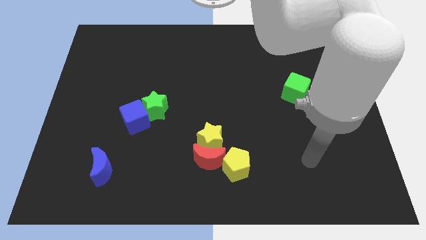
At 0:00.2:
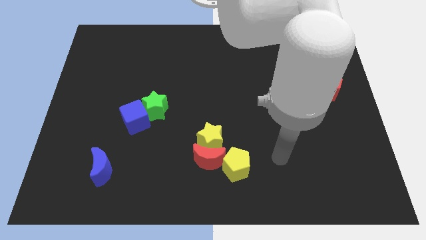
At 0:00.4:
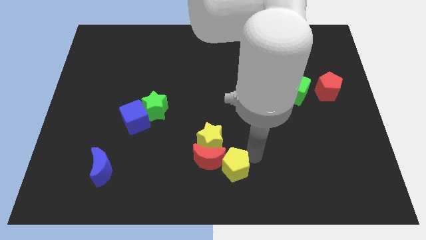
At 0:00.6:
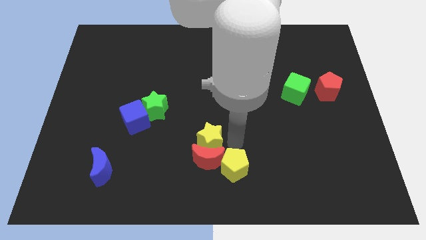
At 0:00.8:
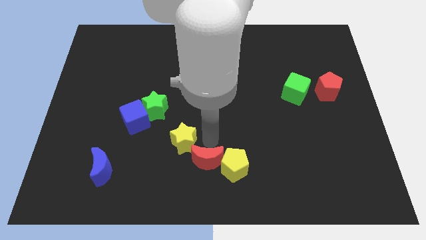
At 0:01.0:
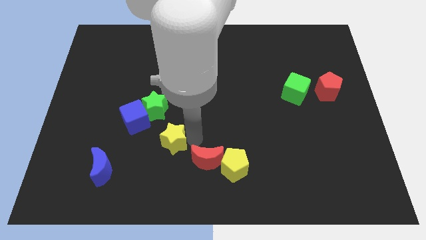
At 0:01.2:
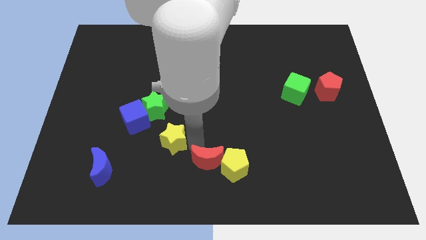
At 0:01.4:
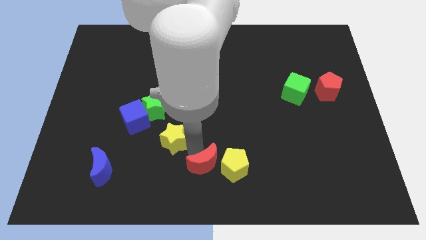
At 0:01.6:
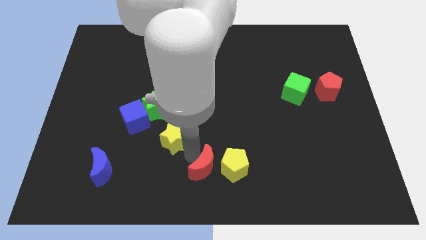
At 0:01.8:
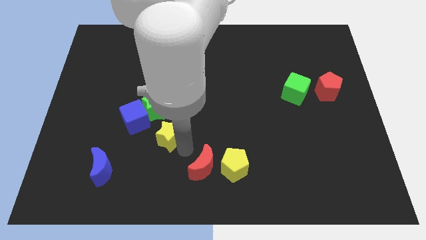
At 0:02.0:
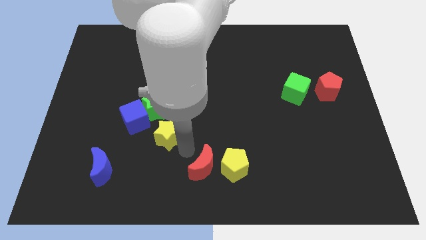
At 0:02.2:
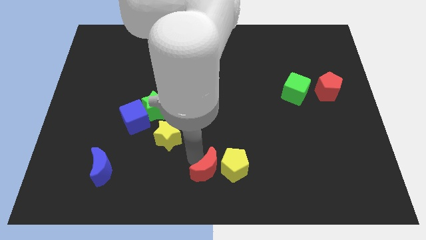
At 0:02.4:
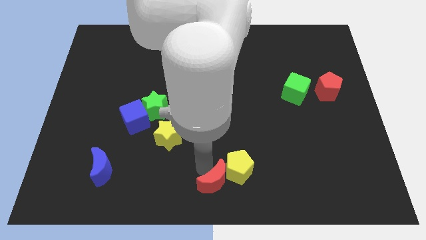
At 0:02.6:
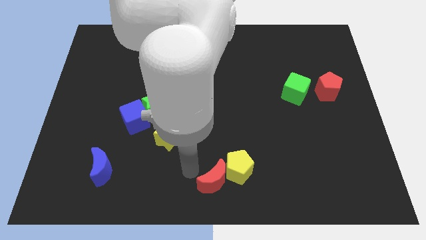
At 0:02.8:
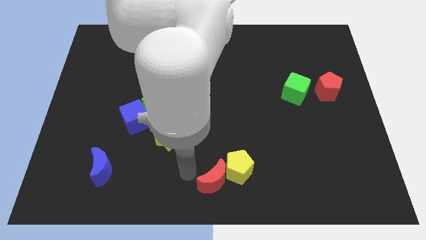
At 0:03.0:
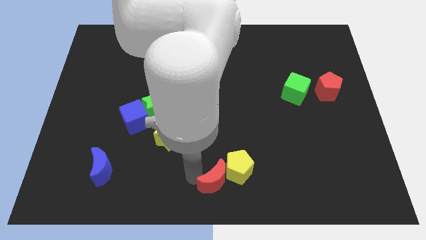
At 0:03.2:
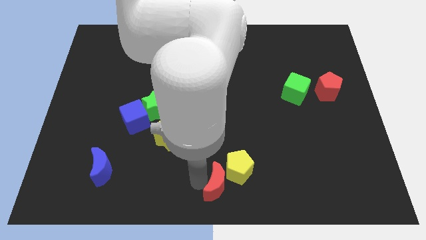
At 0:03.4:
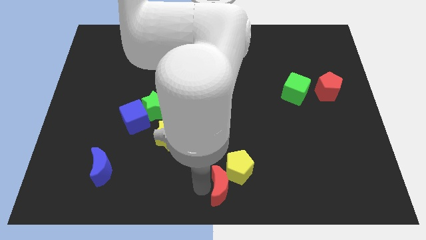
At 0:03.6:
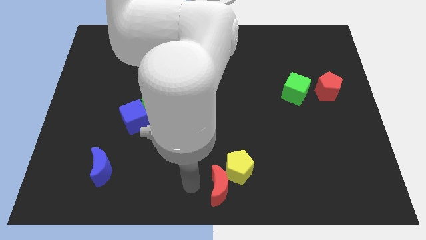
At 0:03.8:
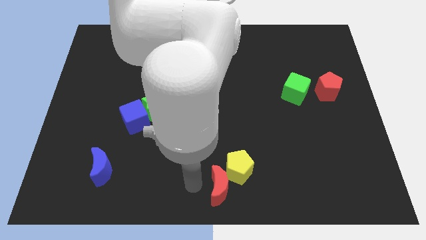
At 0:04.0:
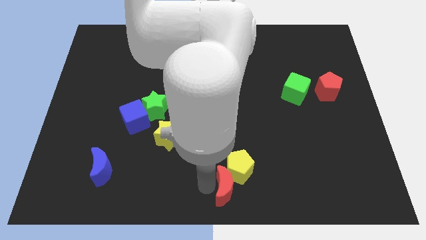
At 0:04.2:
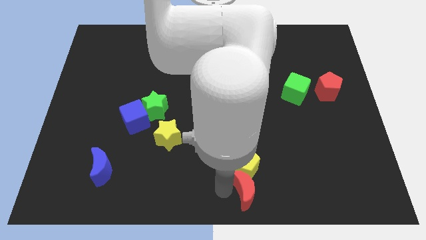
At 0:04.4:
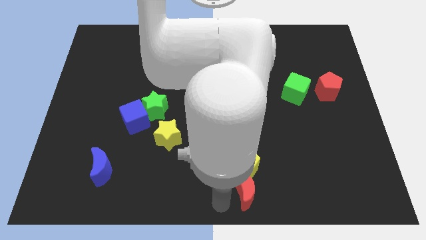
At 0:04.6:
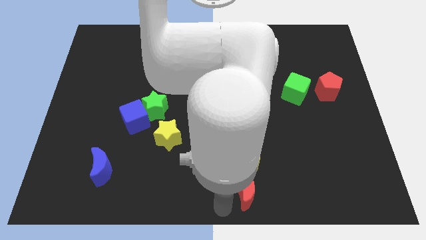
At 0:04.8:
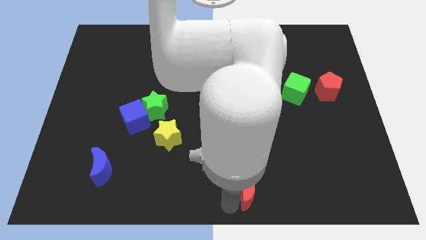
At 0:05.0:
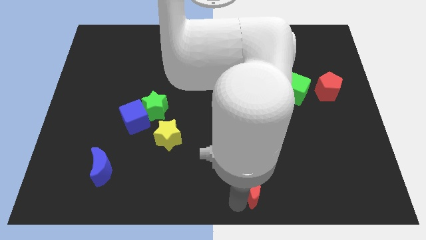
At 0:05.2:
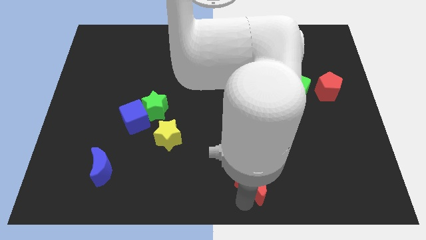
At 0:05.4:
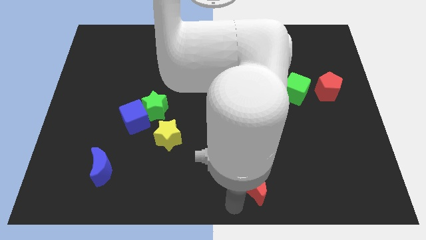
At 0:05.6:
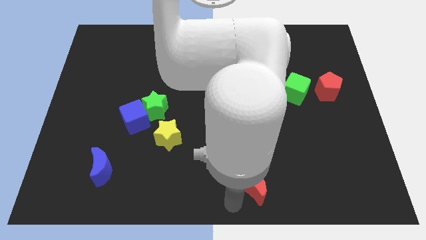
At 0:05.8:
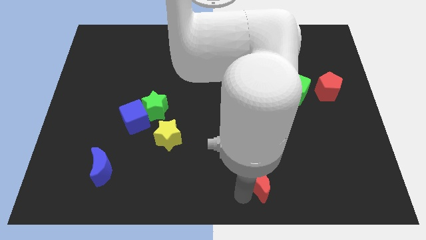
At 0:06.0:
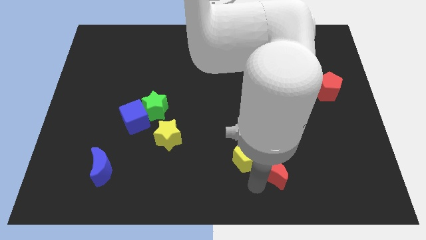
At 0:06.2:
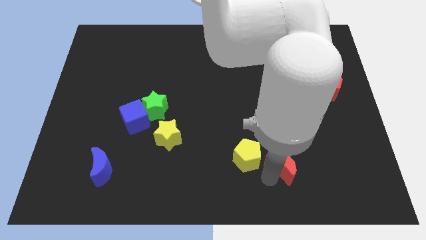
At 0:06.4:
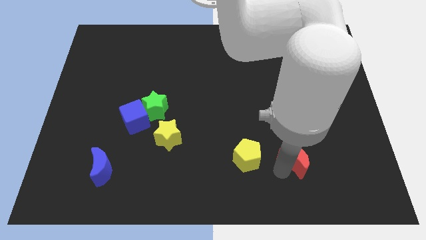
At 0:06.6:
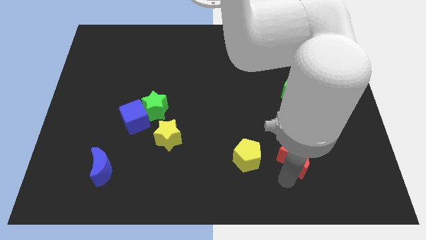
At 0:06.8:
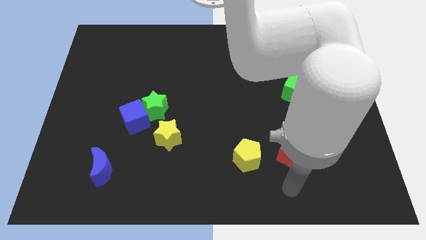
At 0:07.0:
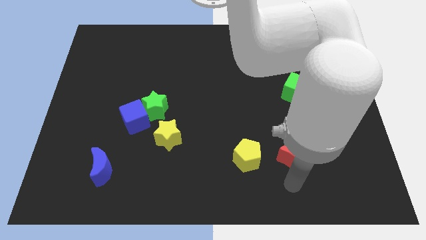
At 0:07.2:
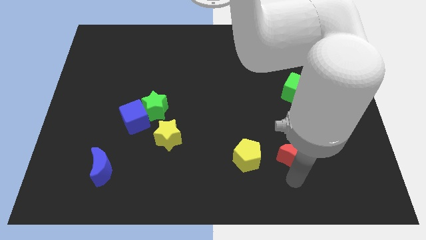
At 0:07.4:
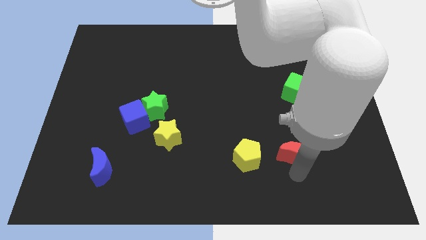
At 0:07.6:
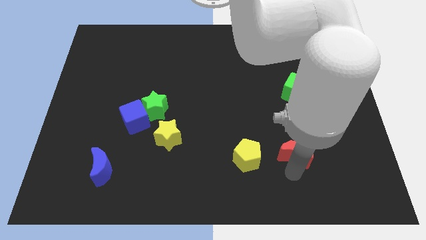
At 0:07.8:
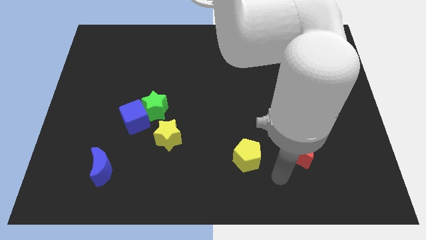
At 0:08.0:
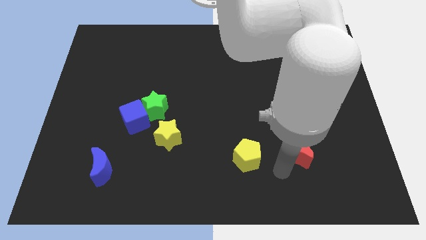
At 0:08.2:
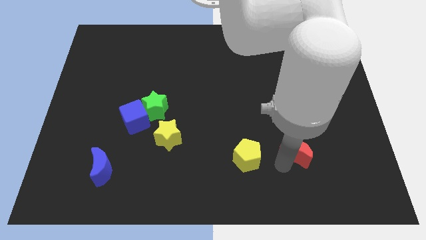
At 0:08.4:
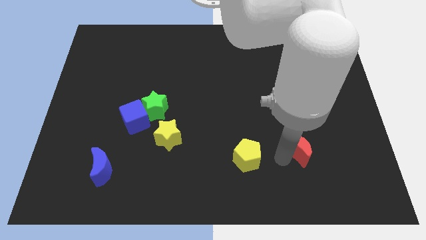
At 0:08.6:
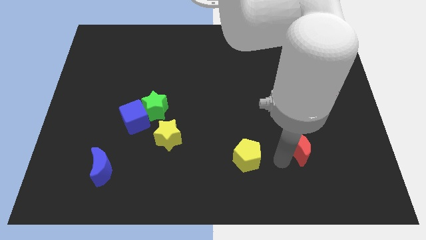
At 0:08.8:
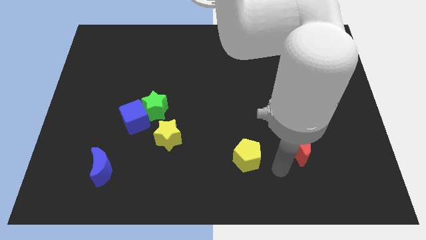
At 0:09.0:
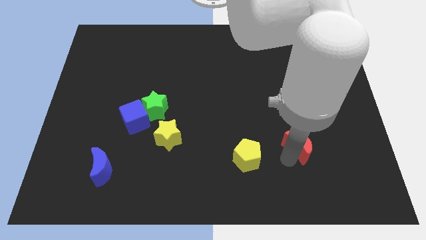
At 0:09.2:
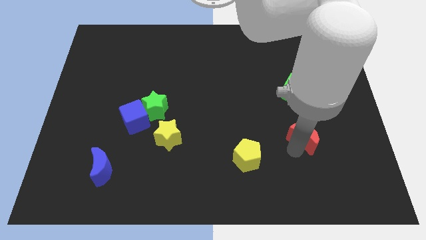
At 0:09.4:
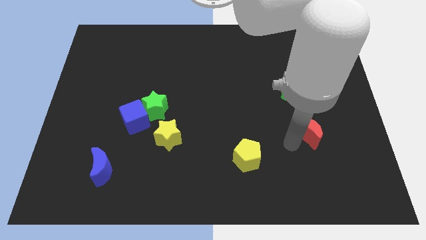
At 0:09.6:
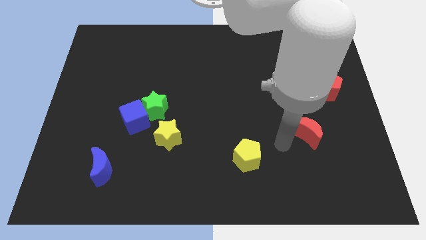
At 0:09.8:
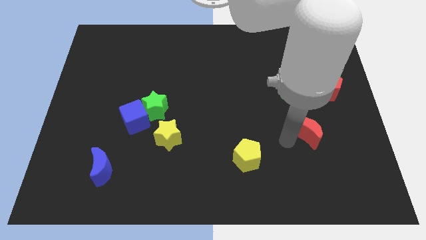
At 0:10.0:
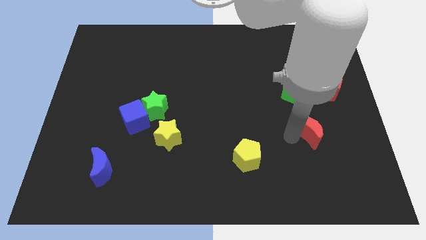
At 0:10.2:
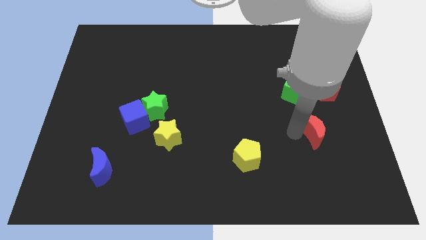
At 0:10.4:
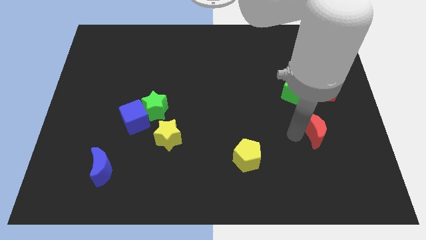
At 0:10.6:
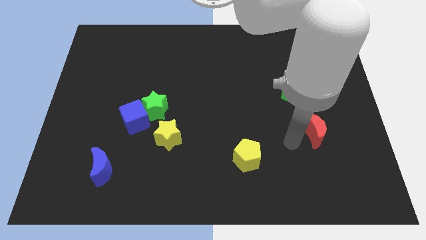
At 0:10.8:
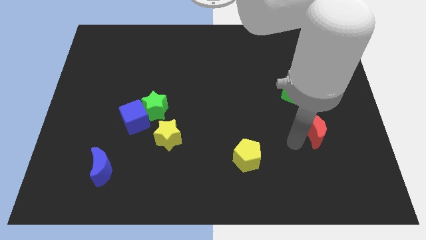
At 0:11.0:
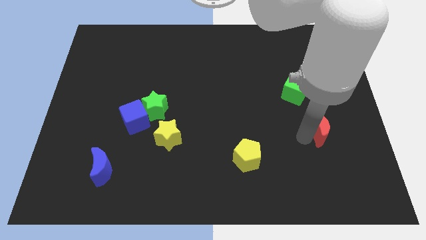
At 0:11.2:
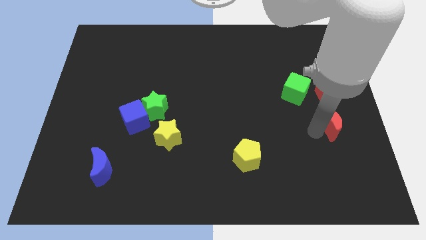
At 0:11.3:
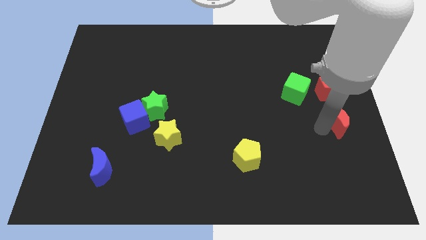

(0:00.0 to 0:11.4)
push the red moon to the right side

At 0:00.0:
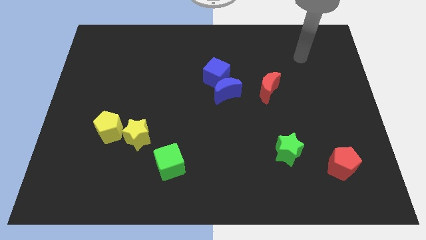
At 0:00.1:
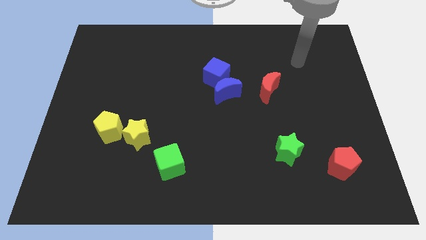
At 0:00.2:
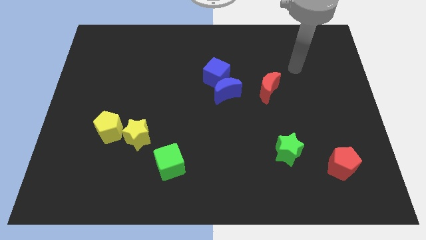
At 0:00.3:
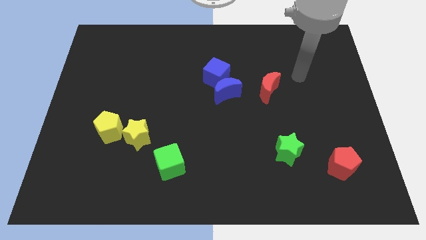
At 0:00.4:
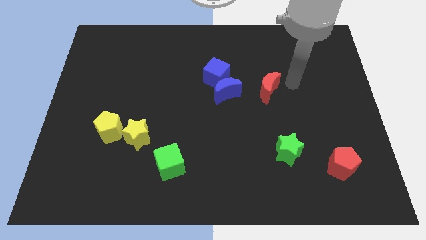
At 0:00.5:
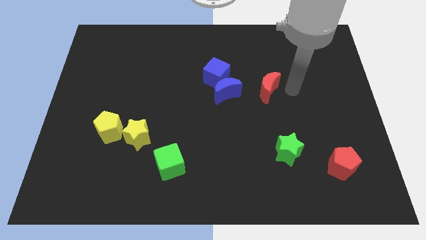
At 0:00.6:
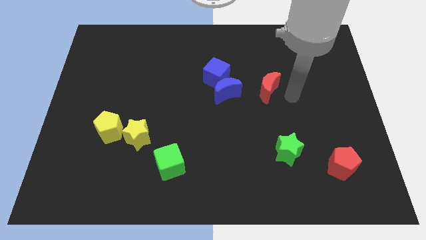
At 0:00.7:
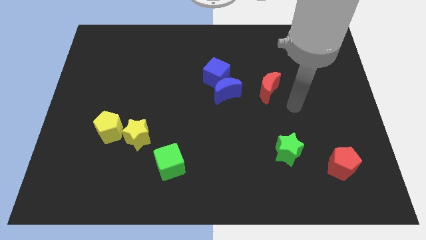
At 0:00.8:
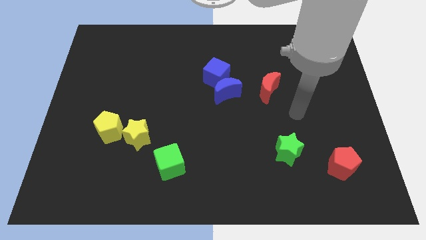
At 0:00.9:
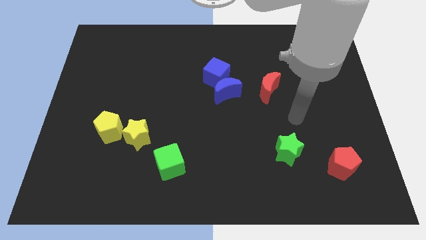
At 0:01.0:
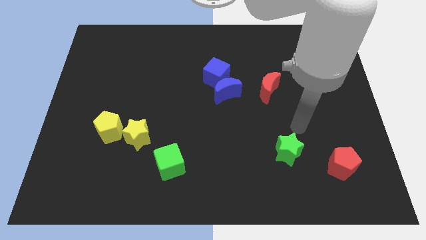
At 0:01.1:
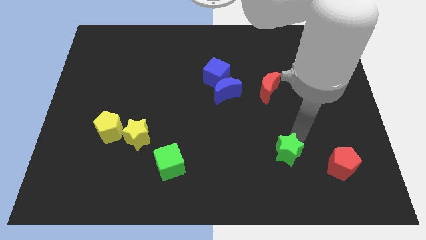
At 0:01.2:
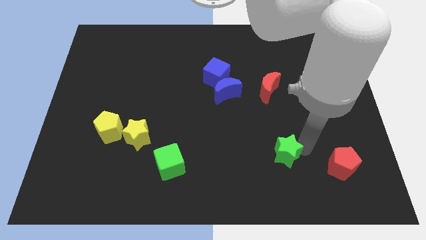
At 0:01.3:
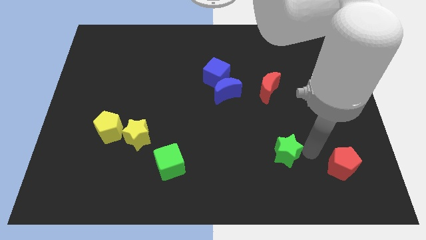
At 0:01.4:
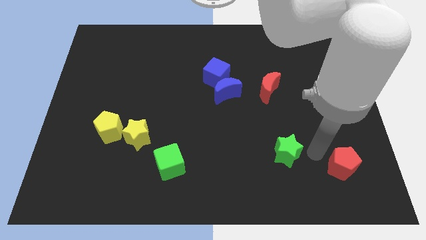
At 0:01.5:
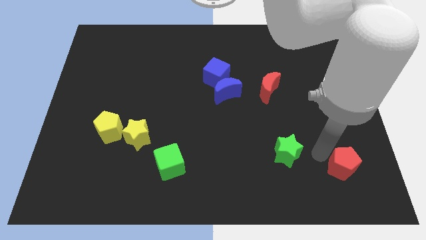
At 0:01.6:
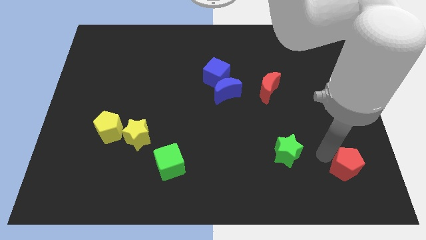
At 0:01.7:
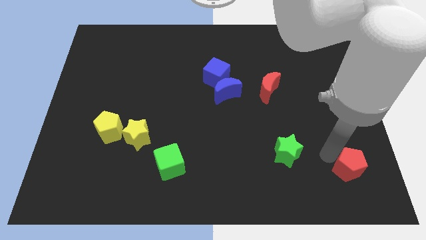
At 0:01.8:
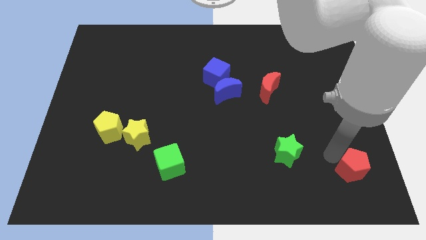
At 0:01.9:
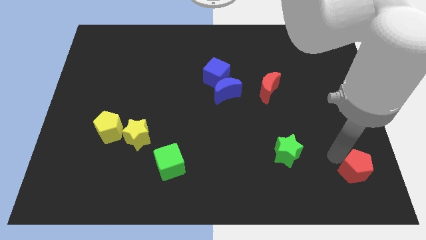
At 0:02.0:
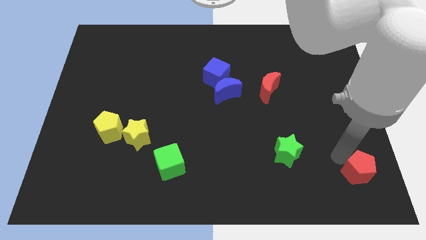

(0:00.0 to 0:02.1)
move the red pentagon to the bottom right of the board
